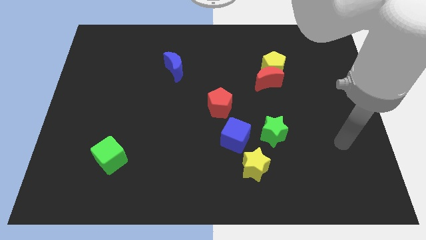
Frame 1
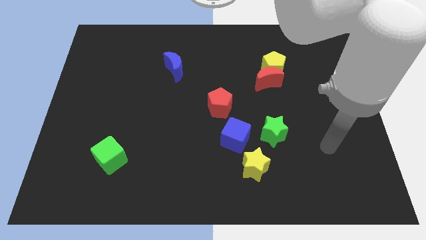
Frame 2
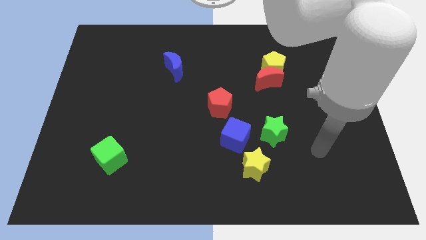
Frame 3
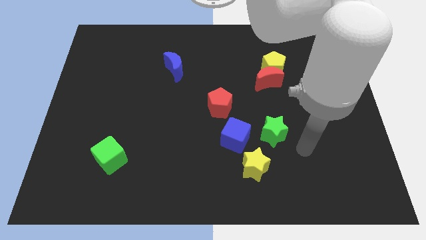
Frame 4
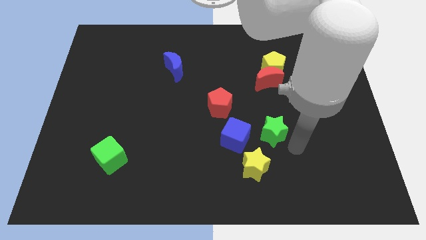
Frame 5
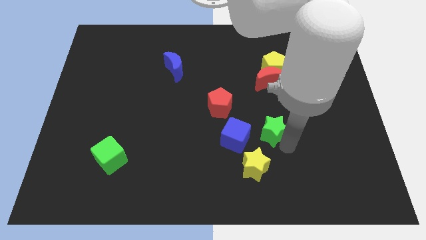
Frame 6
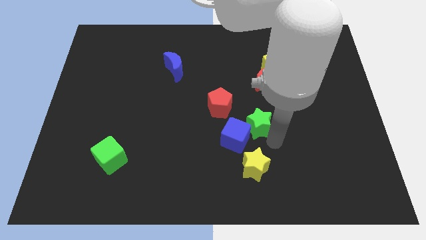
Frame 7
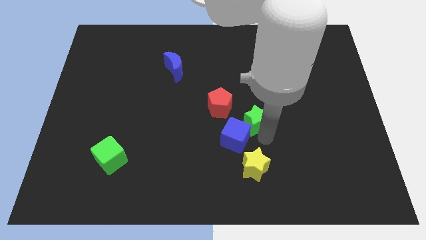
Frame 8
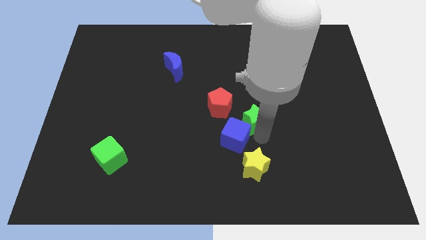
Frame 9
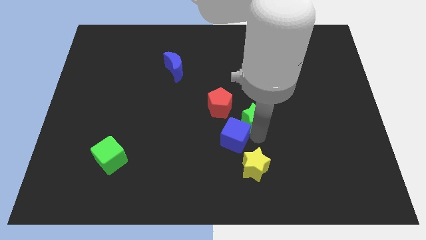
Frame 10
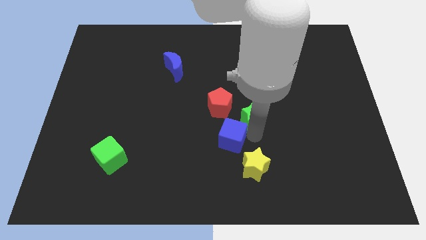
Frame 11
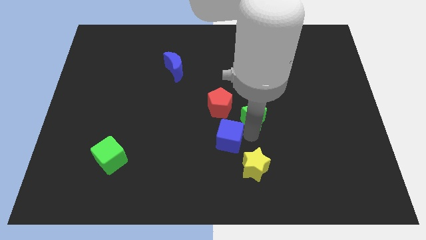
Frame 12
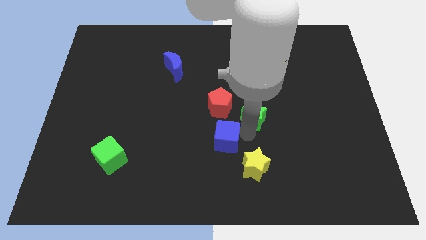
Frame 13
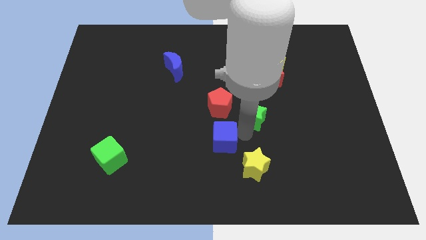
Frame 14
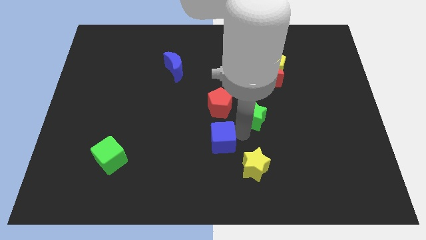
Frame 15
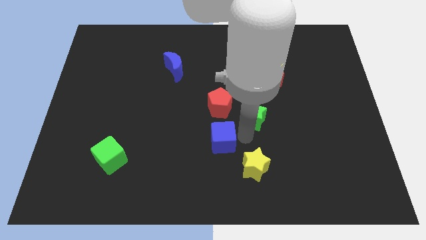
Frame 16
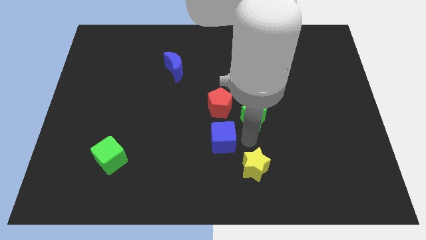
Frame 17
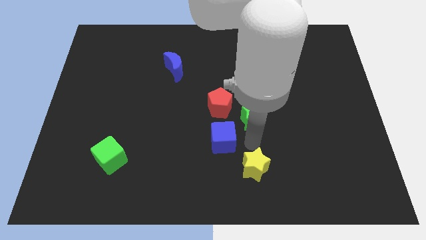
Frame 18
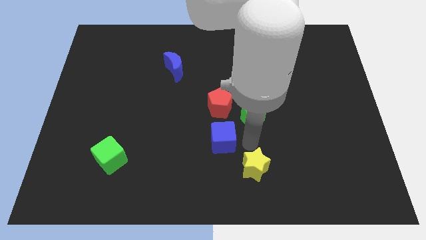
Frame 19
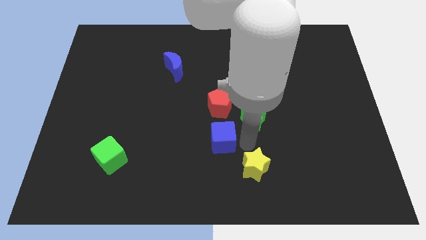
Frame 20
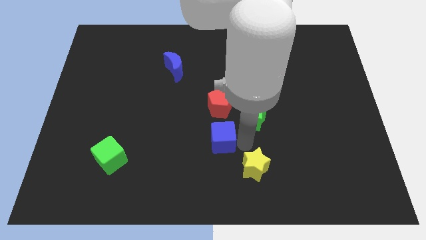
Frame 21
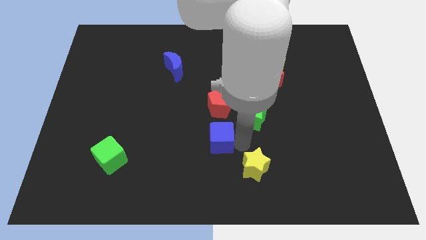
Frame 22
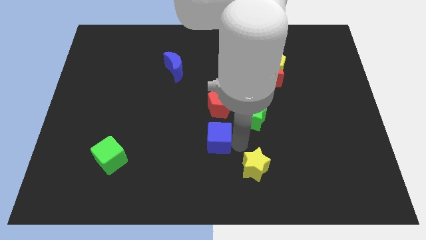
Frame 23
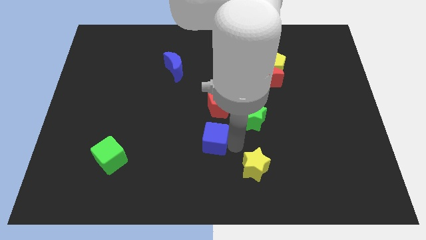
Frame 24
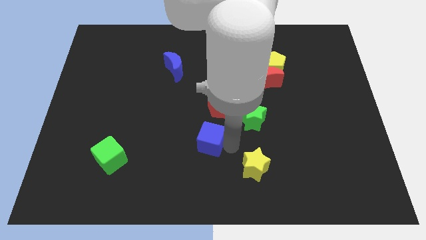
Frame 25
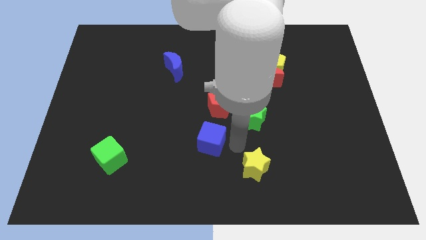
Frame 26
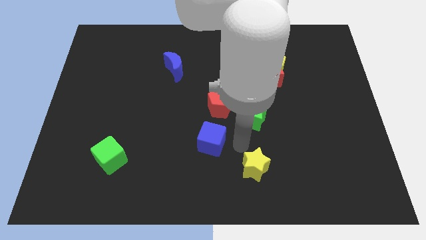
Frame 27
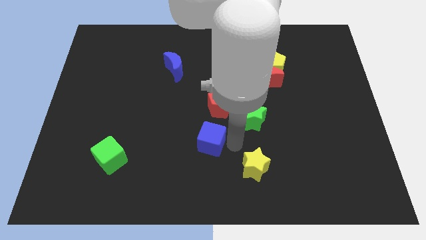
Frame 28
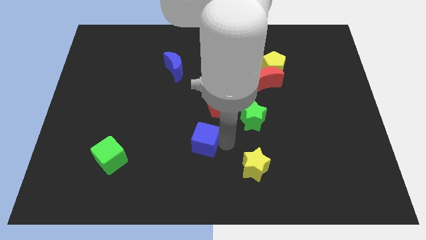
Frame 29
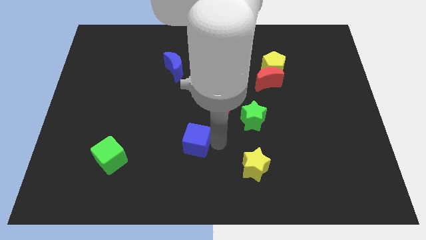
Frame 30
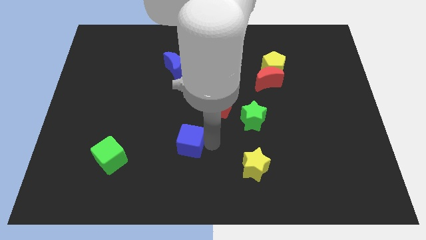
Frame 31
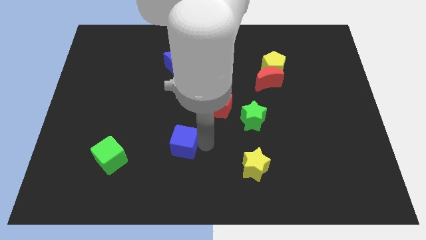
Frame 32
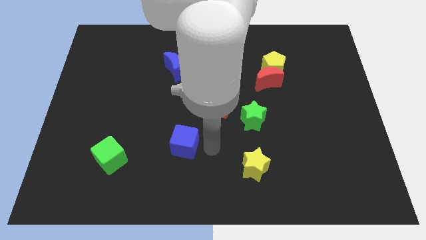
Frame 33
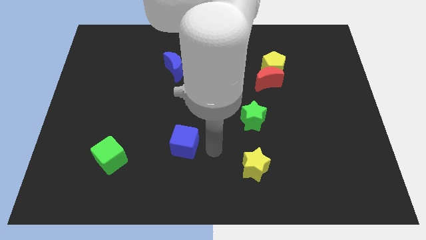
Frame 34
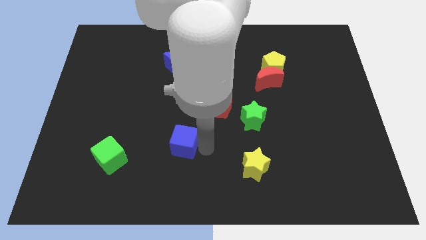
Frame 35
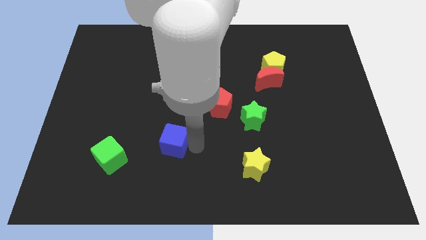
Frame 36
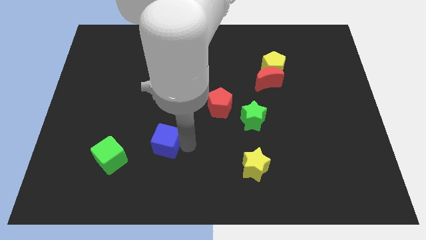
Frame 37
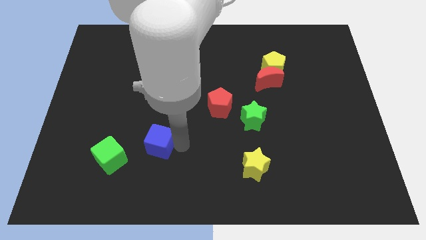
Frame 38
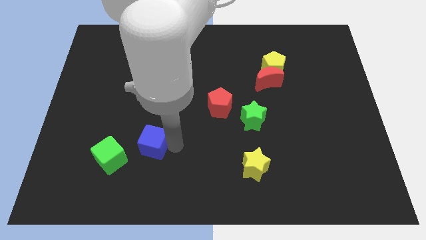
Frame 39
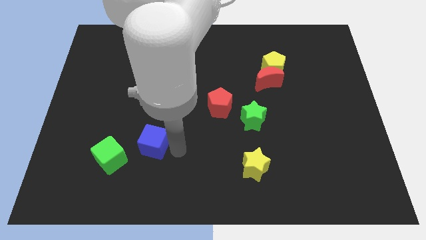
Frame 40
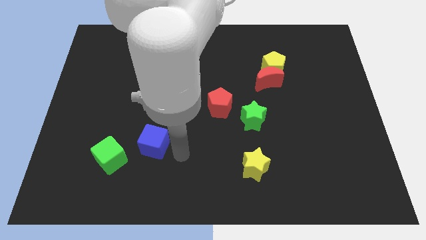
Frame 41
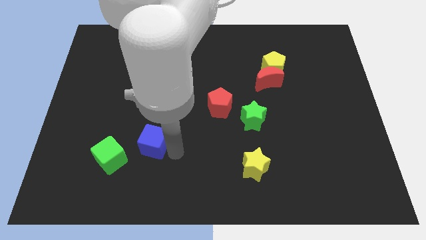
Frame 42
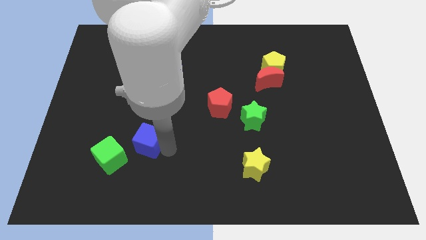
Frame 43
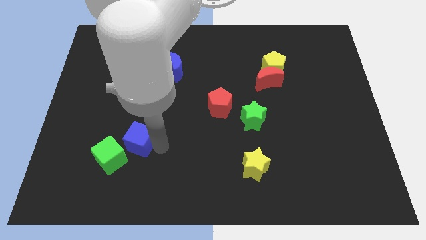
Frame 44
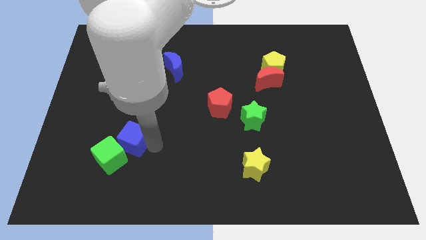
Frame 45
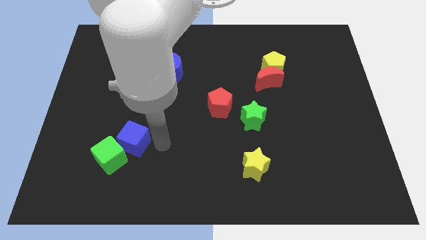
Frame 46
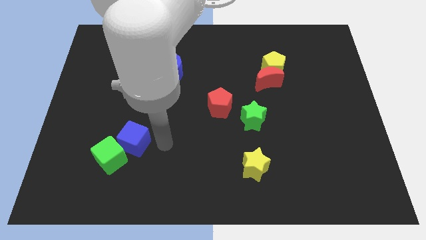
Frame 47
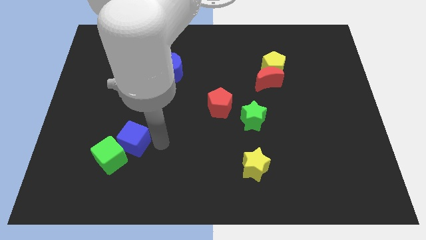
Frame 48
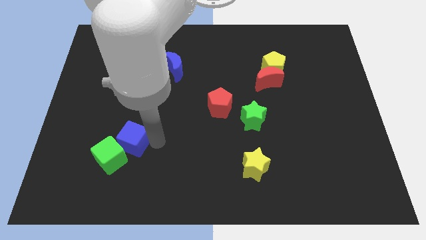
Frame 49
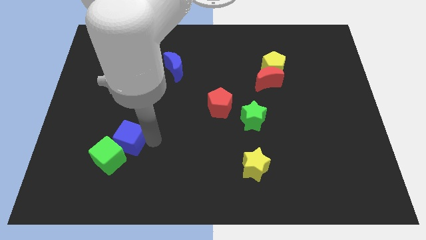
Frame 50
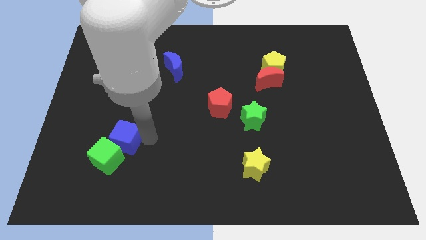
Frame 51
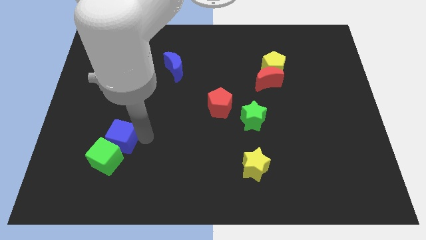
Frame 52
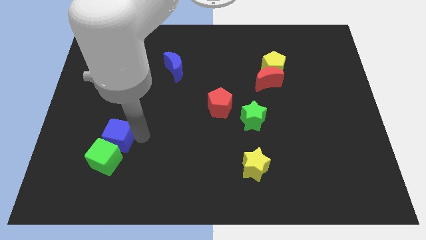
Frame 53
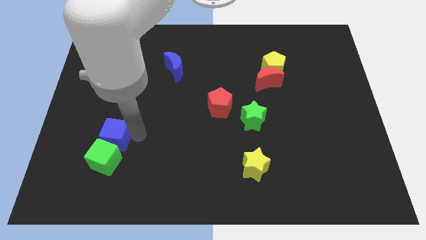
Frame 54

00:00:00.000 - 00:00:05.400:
push the blue cube to the top left of the green cube

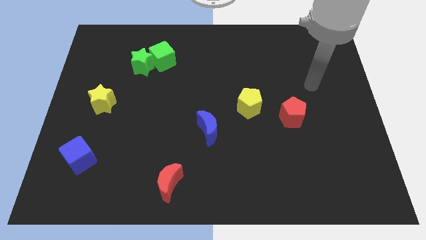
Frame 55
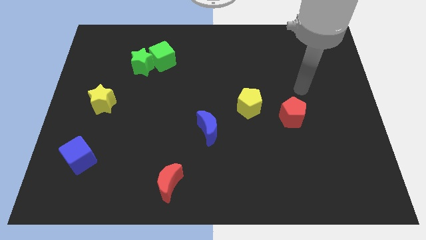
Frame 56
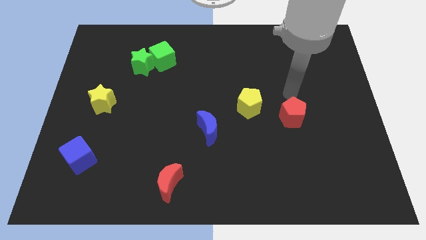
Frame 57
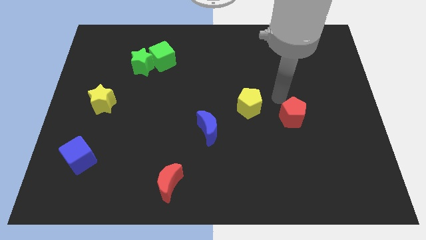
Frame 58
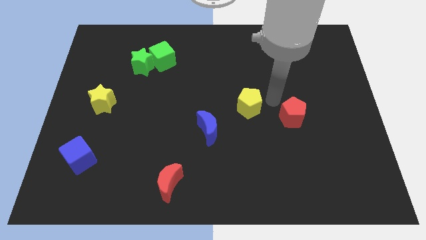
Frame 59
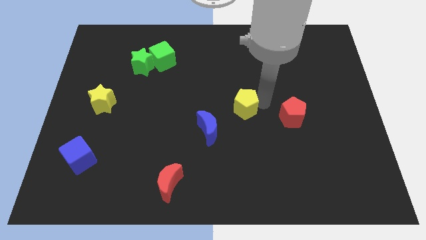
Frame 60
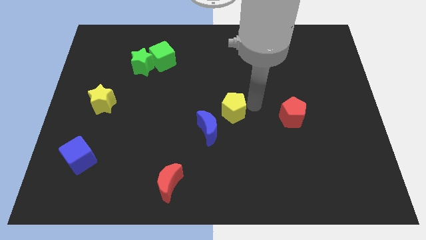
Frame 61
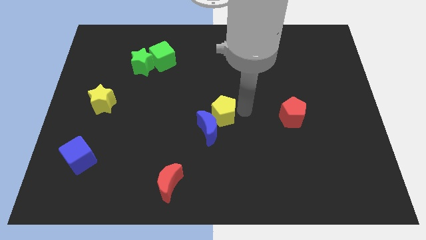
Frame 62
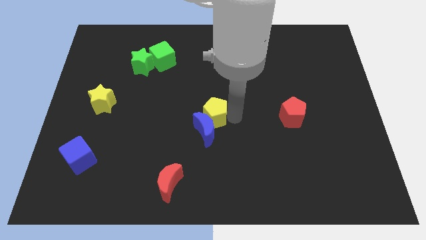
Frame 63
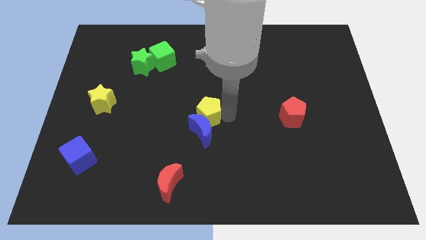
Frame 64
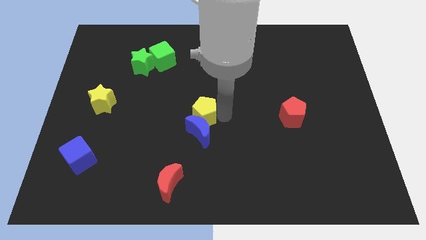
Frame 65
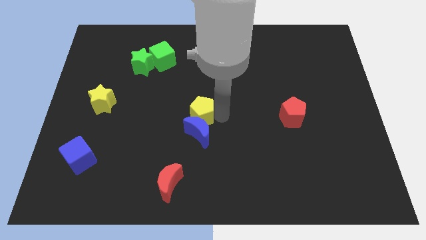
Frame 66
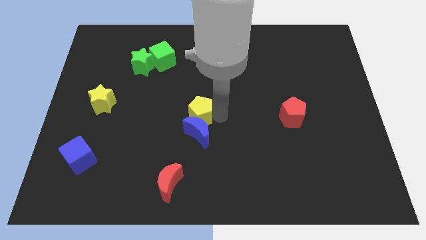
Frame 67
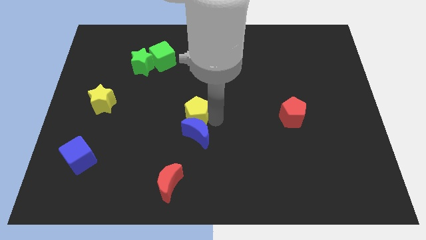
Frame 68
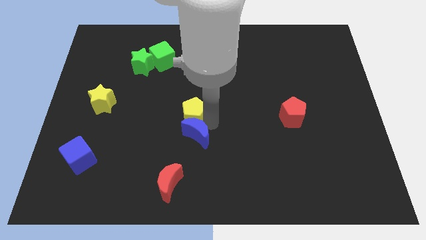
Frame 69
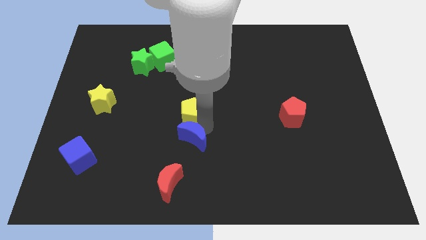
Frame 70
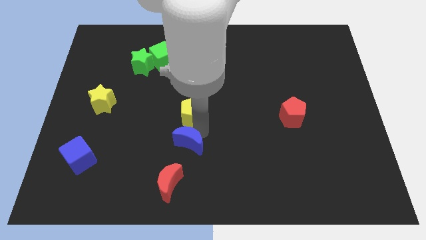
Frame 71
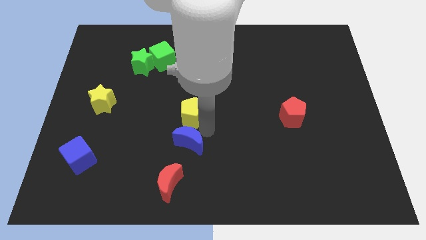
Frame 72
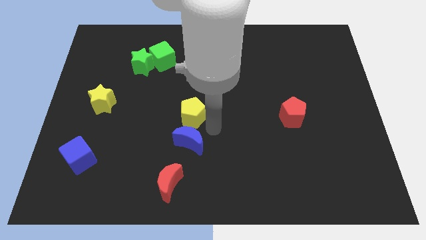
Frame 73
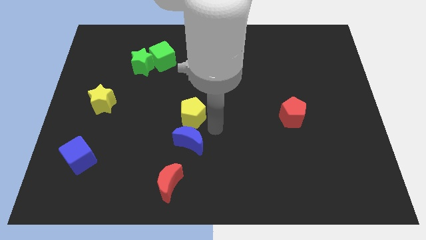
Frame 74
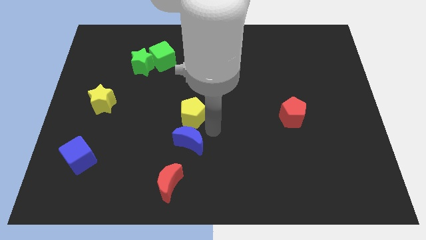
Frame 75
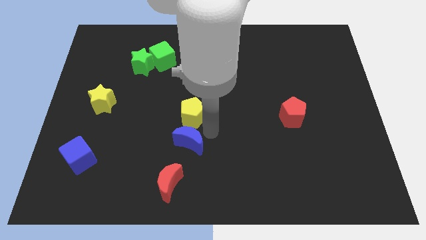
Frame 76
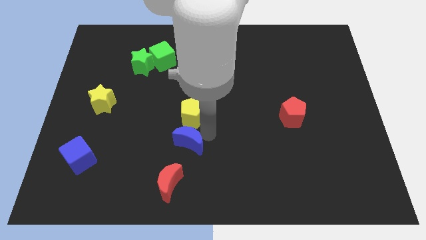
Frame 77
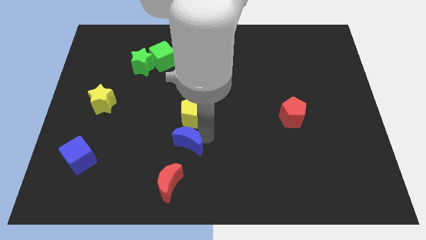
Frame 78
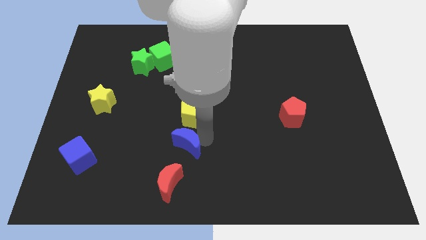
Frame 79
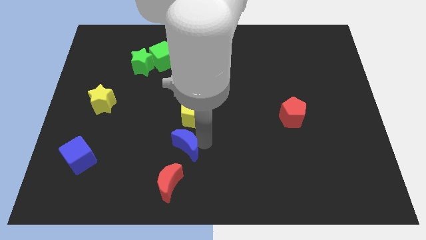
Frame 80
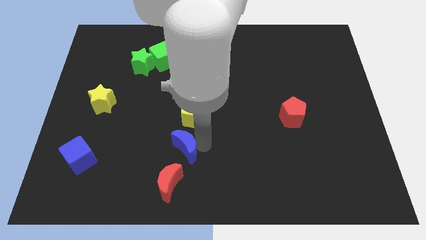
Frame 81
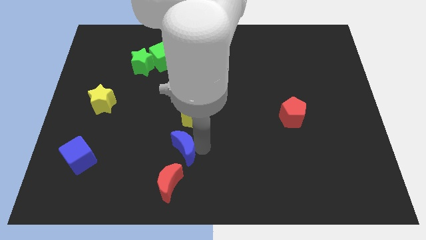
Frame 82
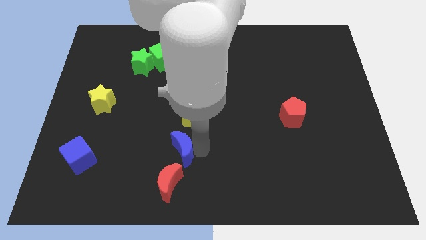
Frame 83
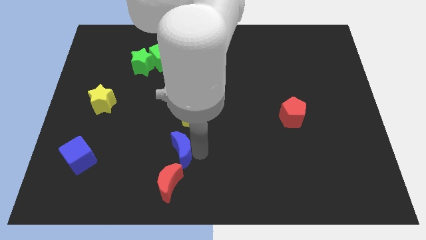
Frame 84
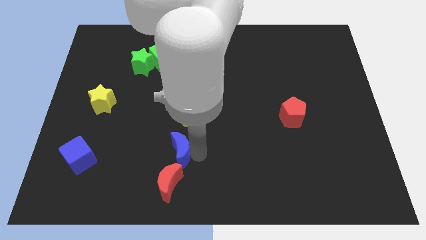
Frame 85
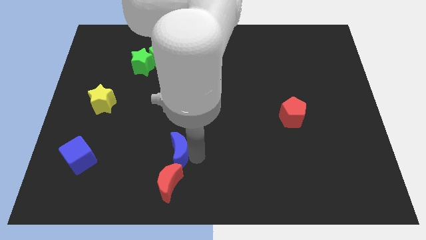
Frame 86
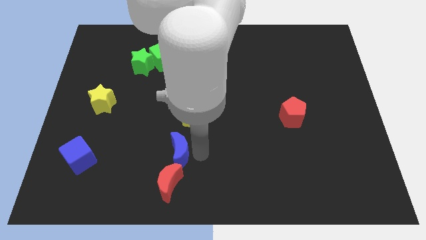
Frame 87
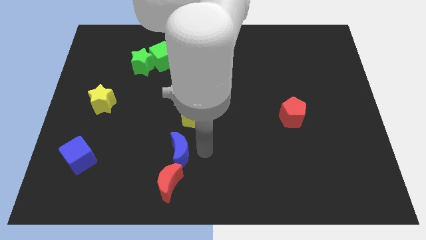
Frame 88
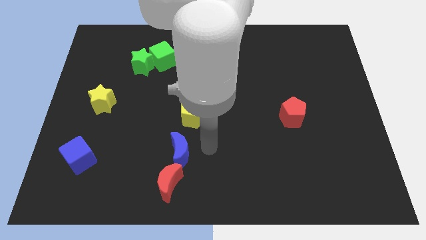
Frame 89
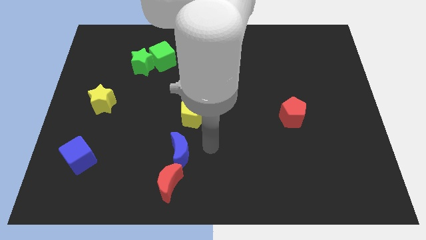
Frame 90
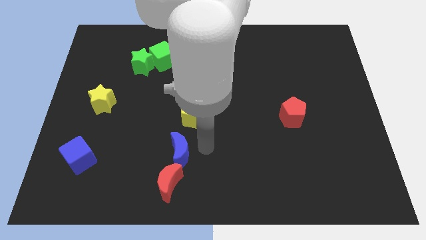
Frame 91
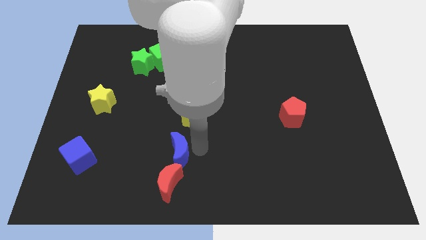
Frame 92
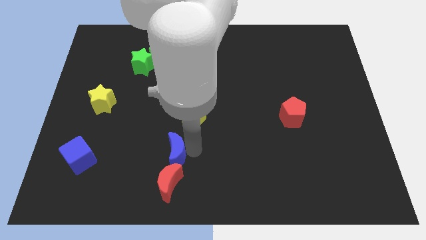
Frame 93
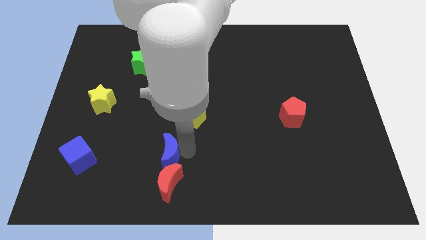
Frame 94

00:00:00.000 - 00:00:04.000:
push the blue moon to the top left of the red moon
